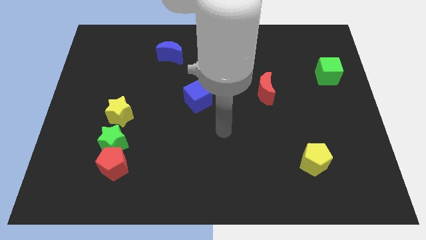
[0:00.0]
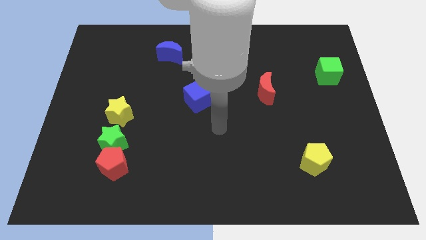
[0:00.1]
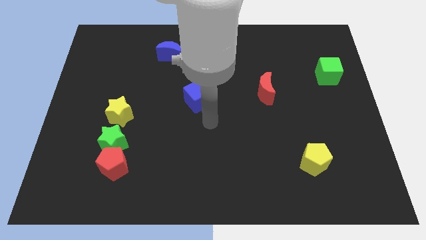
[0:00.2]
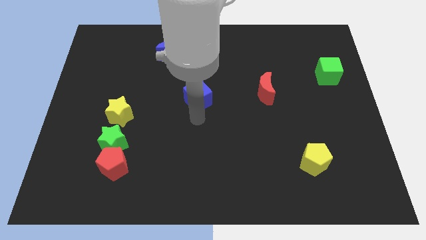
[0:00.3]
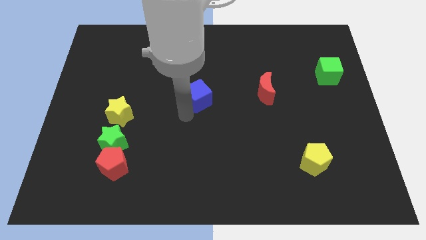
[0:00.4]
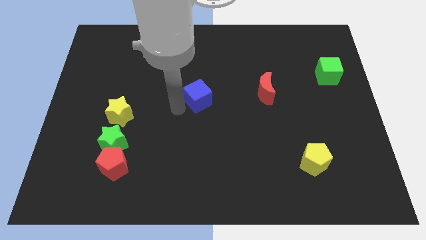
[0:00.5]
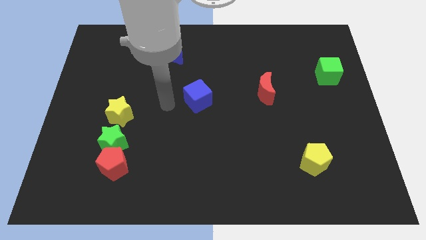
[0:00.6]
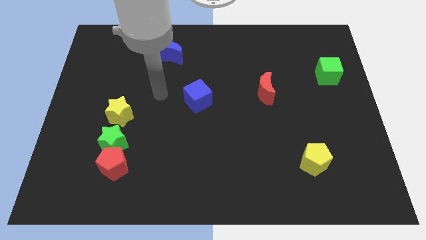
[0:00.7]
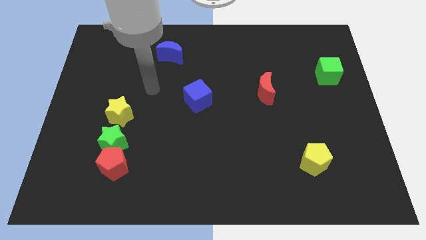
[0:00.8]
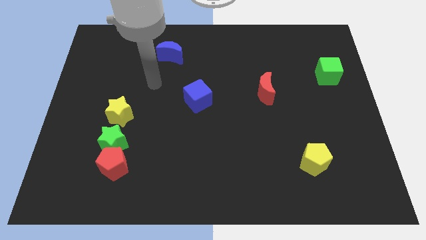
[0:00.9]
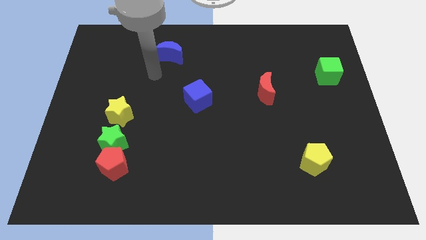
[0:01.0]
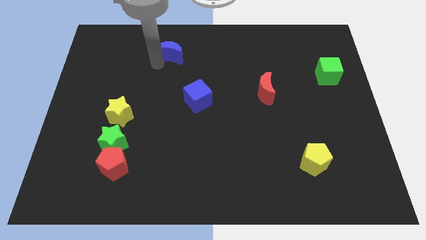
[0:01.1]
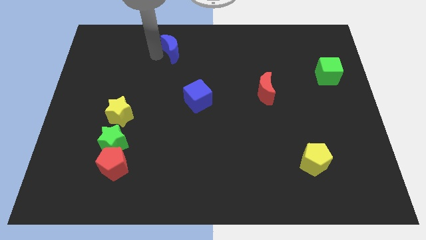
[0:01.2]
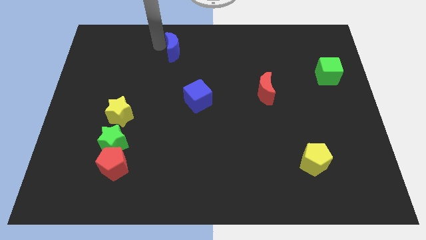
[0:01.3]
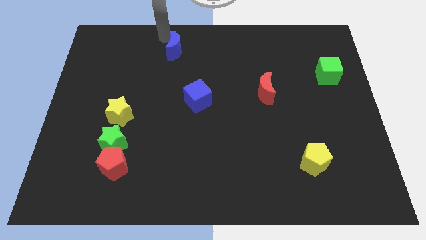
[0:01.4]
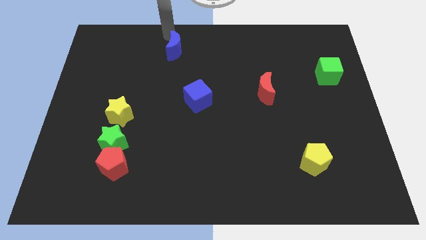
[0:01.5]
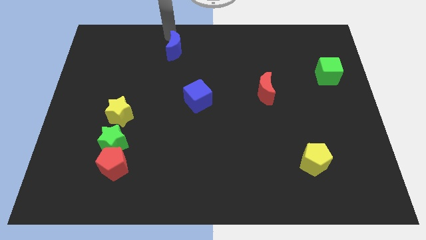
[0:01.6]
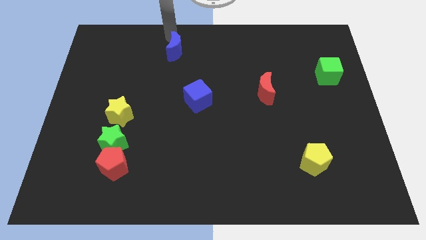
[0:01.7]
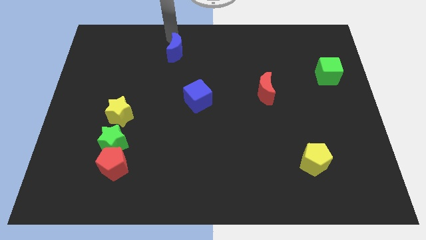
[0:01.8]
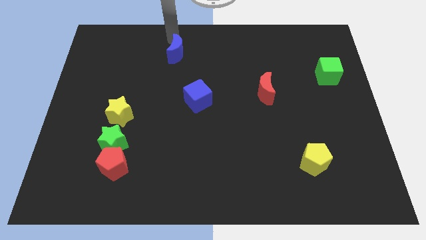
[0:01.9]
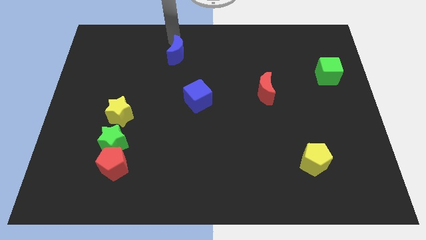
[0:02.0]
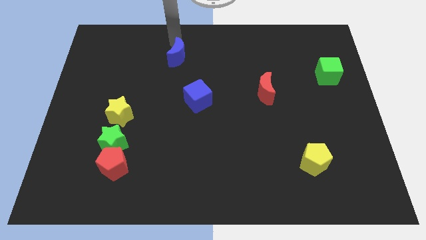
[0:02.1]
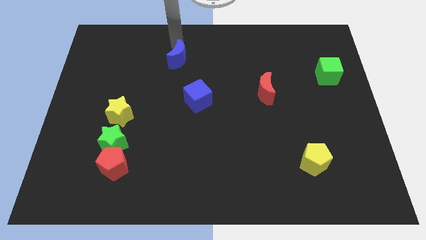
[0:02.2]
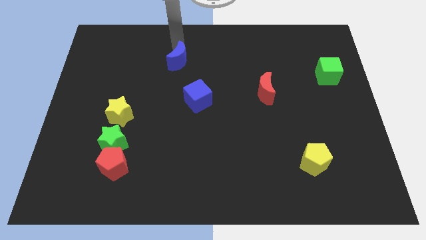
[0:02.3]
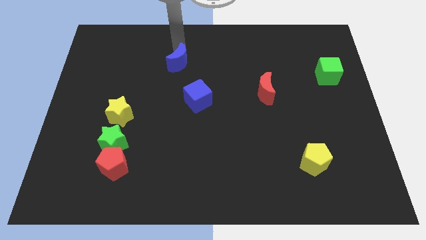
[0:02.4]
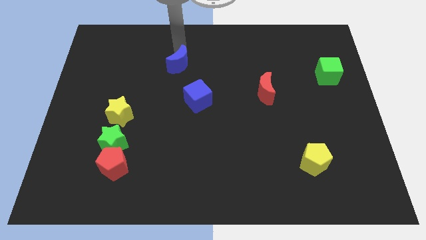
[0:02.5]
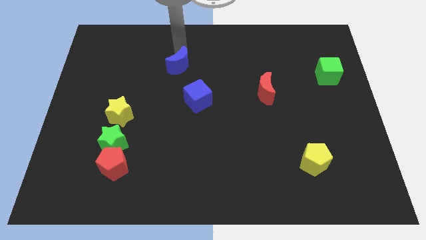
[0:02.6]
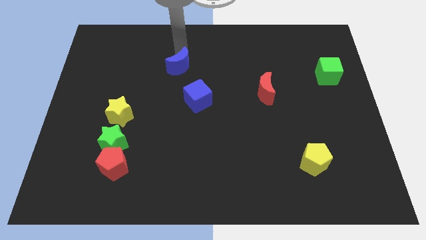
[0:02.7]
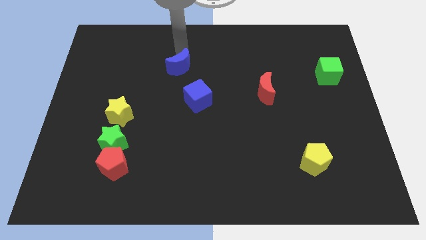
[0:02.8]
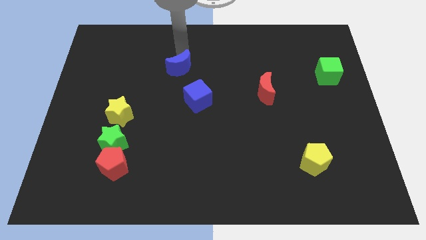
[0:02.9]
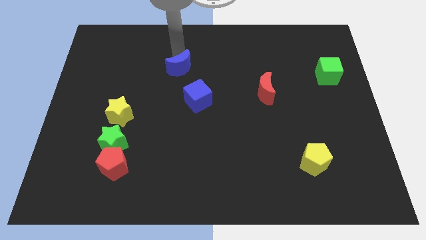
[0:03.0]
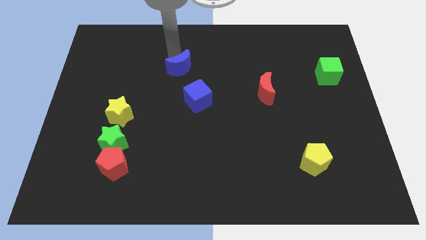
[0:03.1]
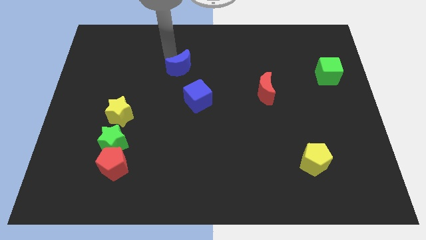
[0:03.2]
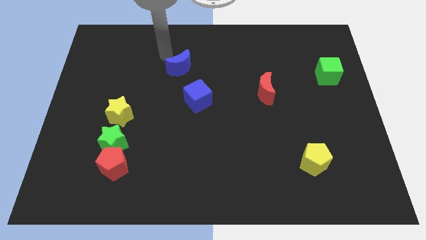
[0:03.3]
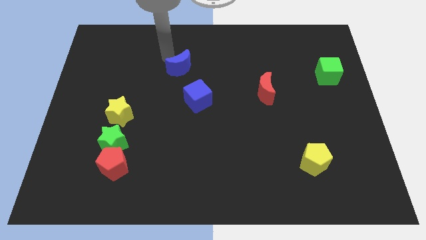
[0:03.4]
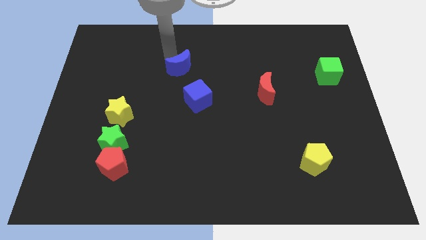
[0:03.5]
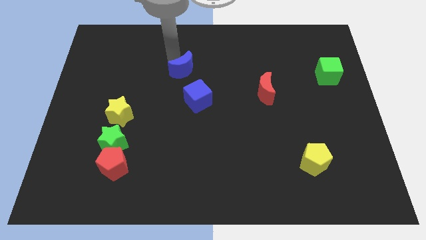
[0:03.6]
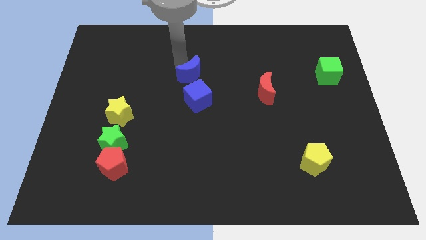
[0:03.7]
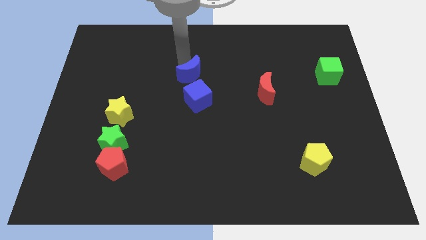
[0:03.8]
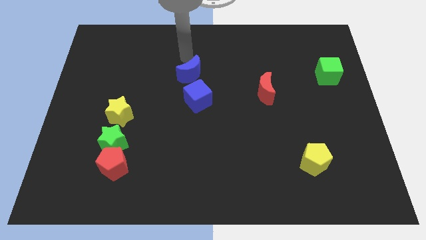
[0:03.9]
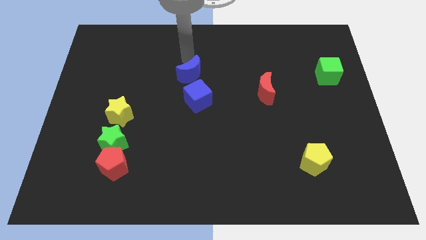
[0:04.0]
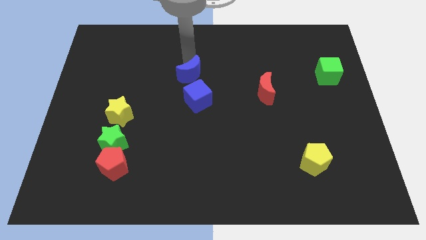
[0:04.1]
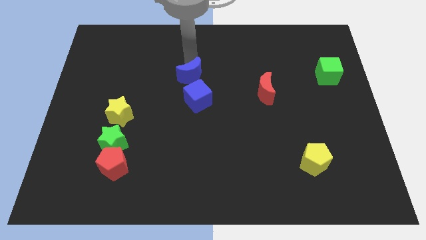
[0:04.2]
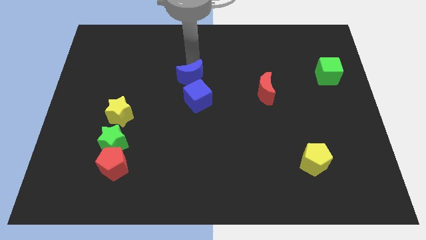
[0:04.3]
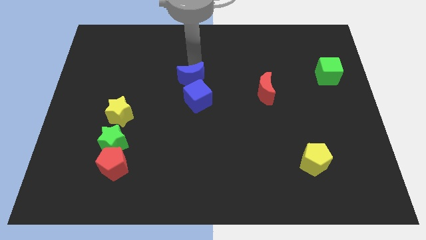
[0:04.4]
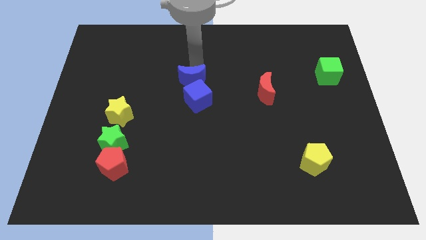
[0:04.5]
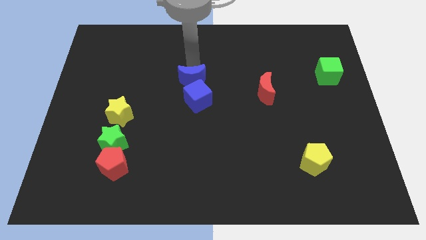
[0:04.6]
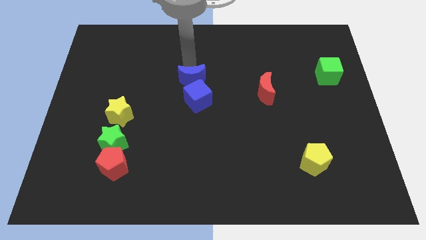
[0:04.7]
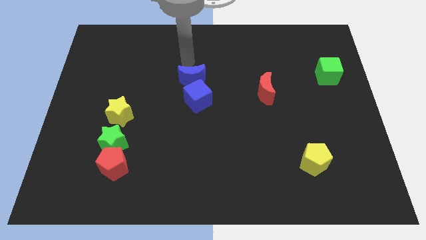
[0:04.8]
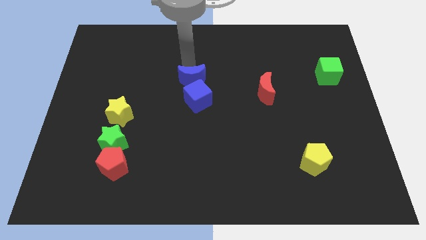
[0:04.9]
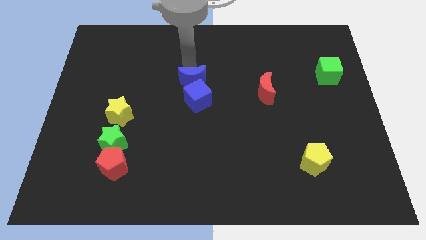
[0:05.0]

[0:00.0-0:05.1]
push the blue moon close to the blue cube

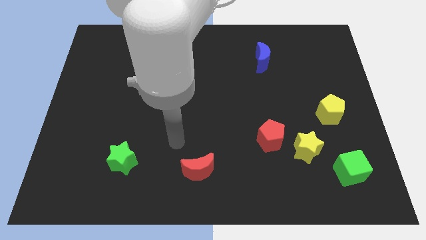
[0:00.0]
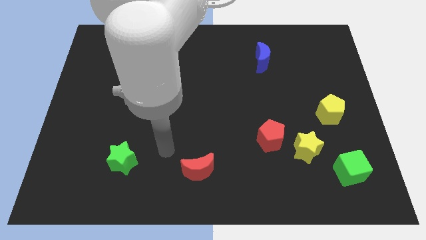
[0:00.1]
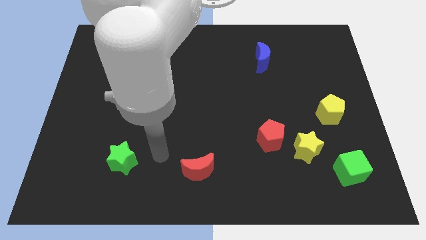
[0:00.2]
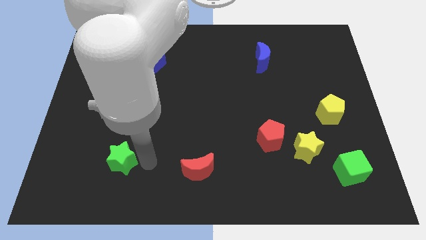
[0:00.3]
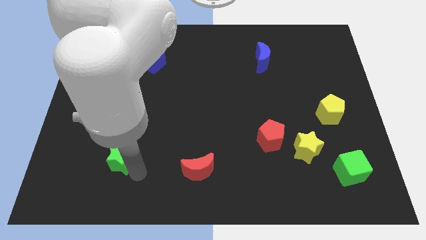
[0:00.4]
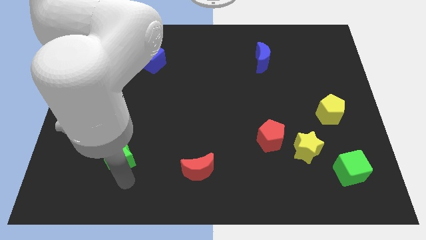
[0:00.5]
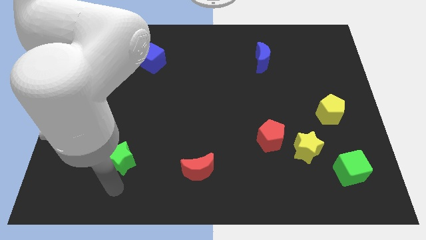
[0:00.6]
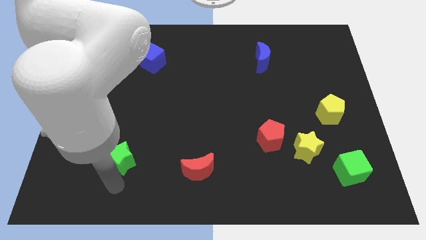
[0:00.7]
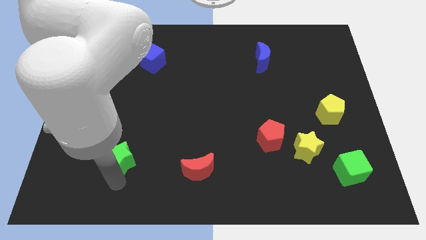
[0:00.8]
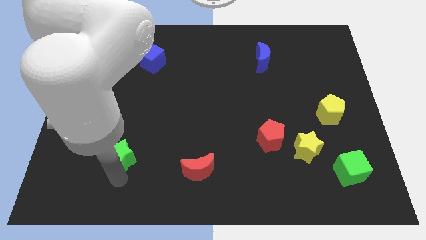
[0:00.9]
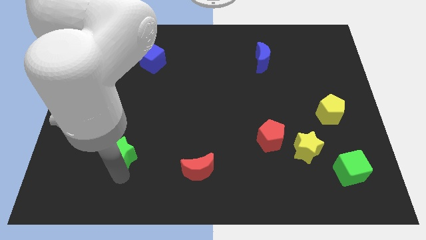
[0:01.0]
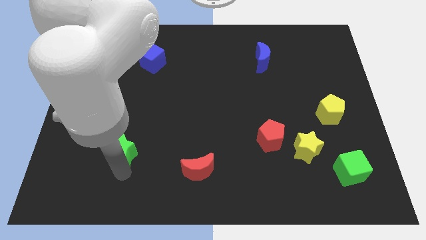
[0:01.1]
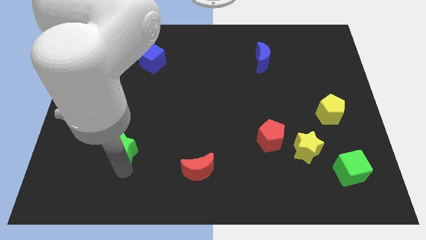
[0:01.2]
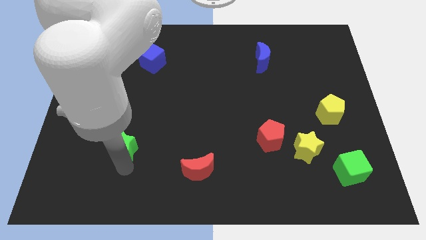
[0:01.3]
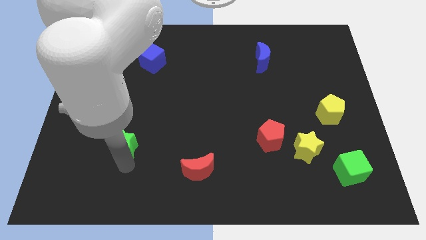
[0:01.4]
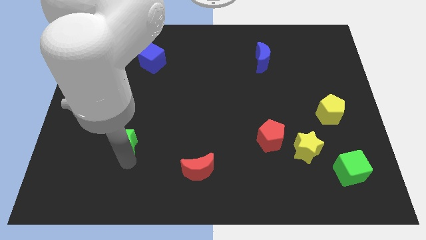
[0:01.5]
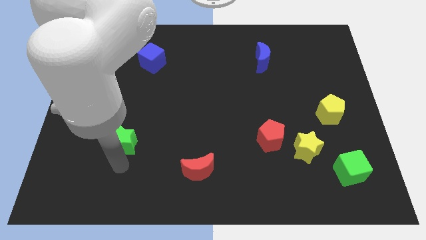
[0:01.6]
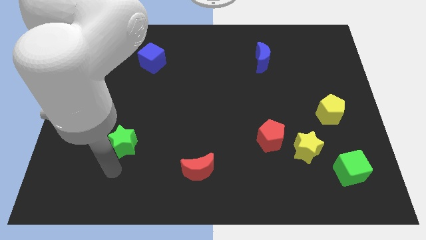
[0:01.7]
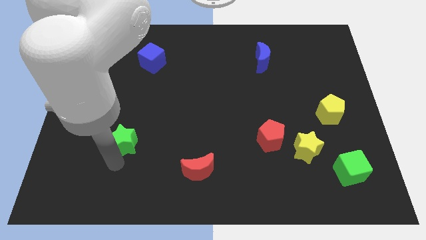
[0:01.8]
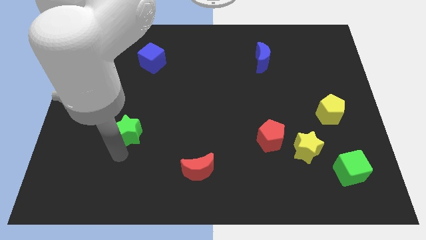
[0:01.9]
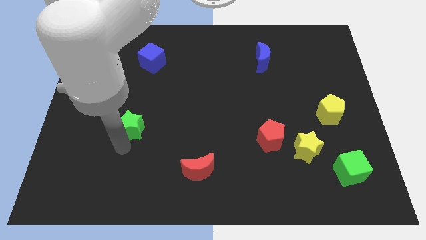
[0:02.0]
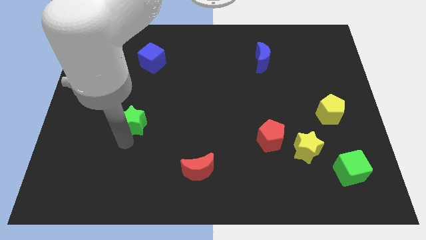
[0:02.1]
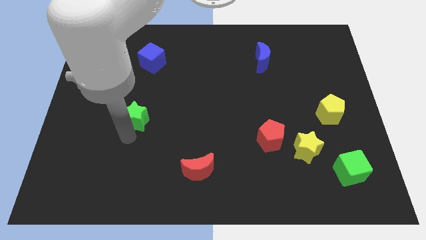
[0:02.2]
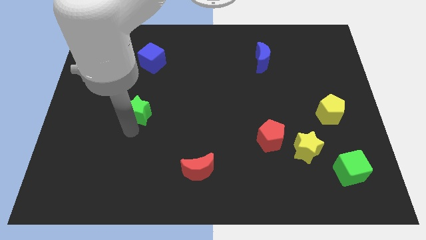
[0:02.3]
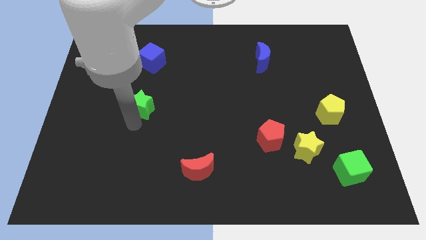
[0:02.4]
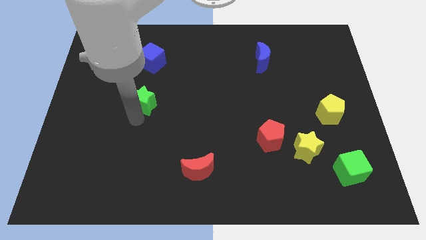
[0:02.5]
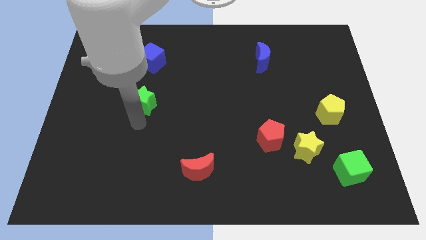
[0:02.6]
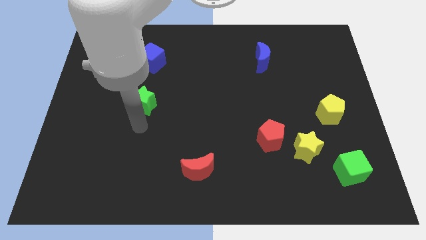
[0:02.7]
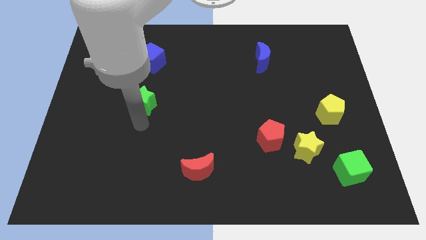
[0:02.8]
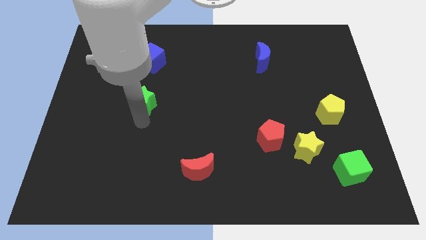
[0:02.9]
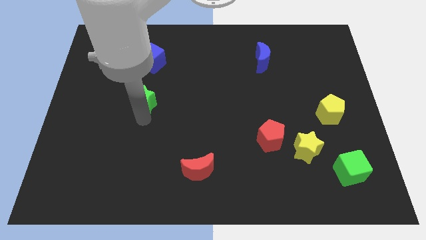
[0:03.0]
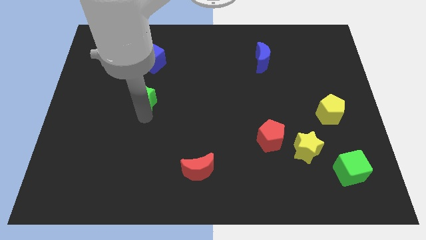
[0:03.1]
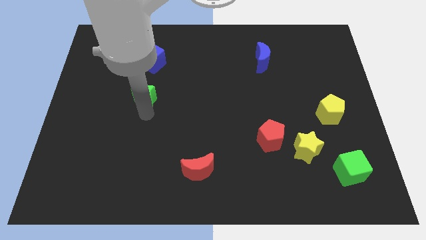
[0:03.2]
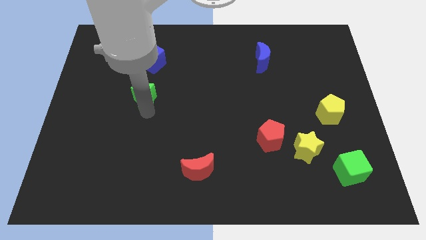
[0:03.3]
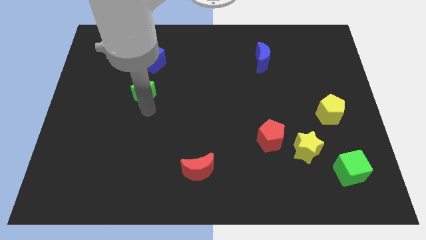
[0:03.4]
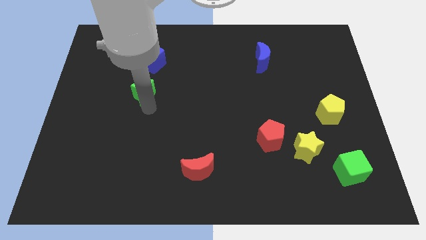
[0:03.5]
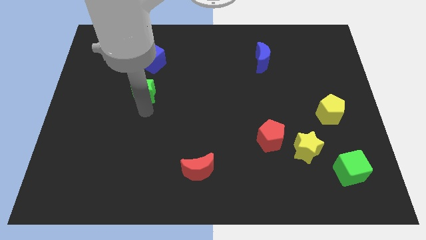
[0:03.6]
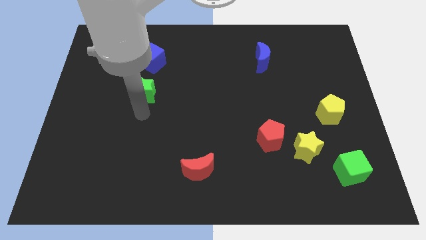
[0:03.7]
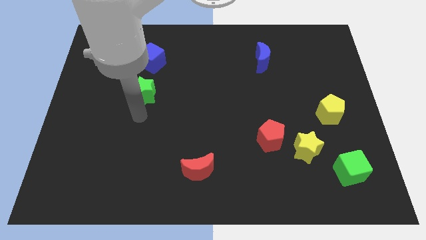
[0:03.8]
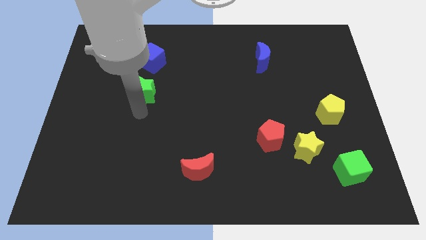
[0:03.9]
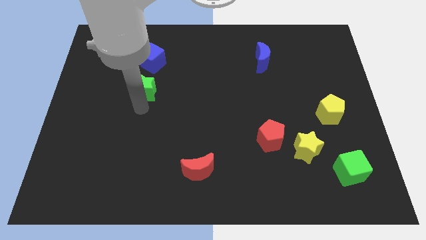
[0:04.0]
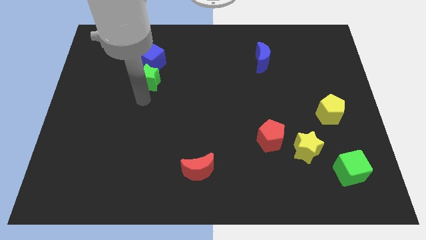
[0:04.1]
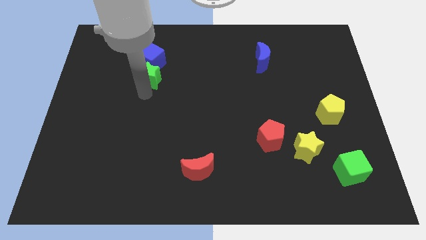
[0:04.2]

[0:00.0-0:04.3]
slide the green star to the blue cube
